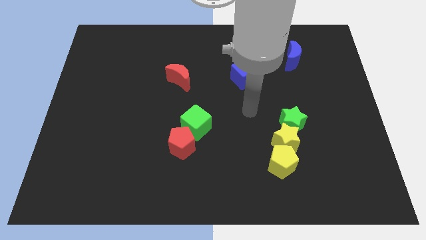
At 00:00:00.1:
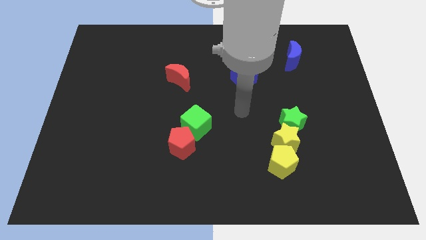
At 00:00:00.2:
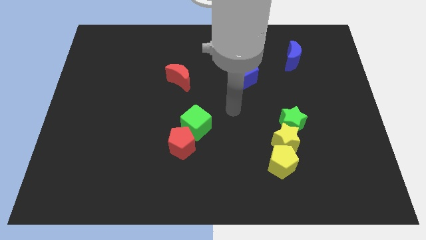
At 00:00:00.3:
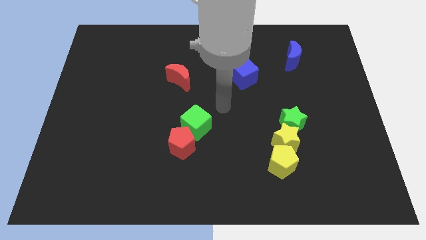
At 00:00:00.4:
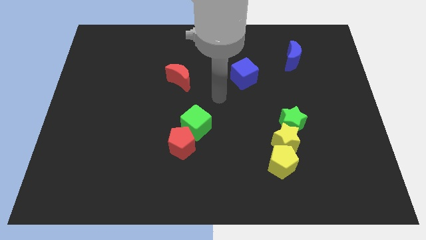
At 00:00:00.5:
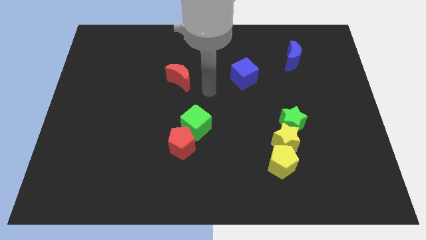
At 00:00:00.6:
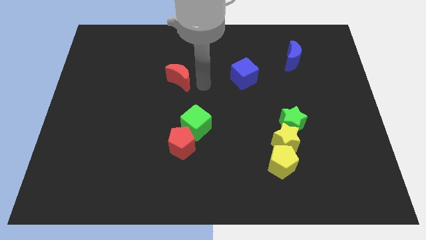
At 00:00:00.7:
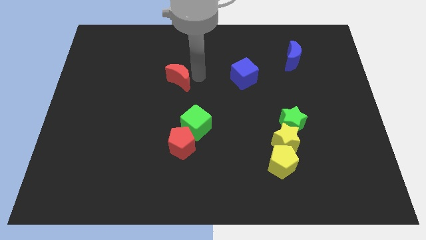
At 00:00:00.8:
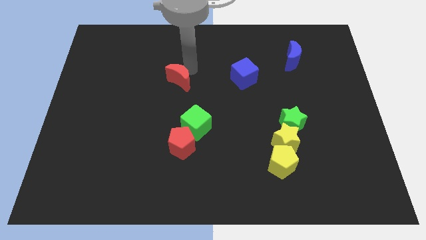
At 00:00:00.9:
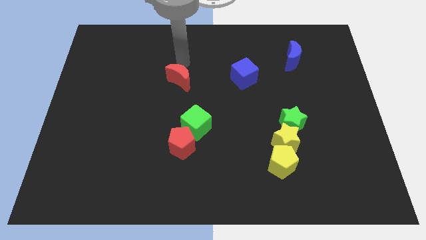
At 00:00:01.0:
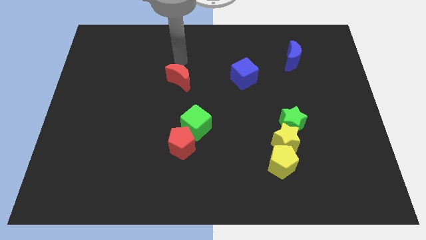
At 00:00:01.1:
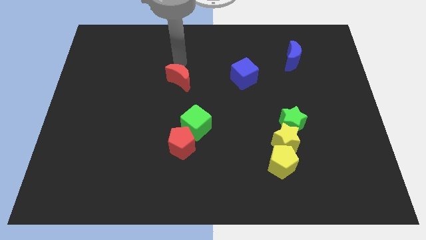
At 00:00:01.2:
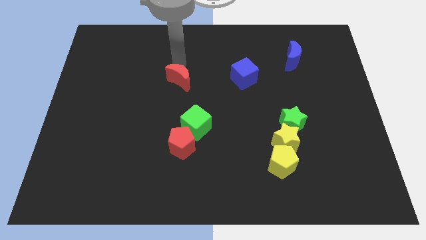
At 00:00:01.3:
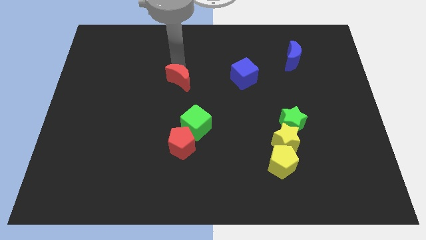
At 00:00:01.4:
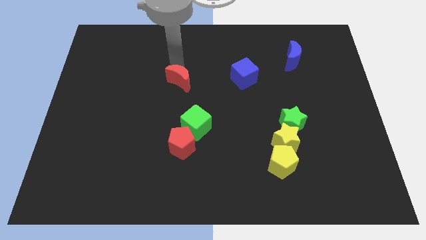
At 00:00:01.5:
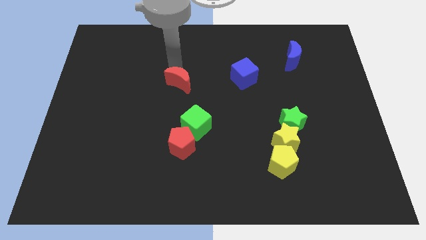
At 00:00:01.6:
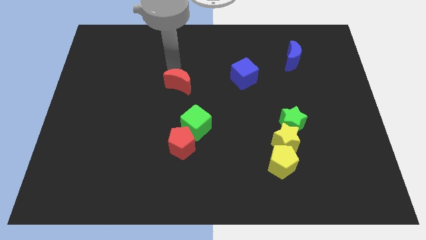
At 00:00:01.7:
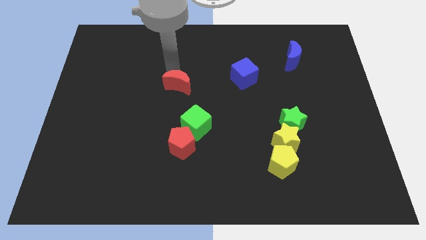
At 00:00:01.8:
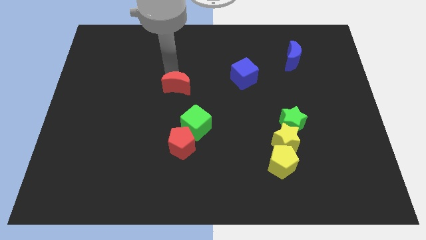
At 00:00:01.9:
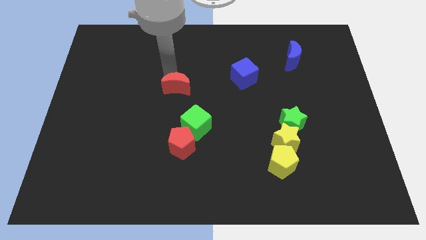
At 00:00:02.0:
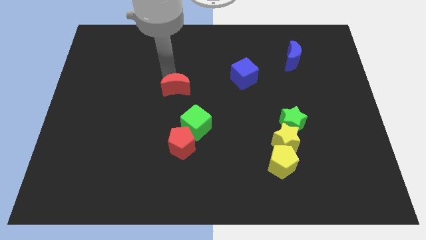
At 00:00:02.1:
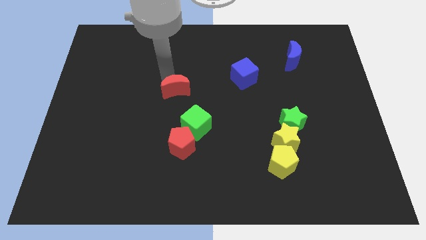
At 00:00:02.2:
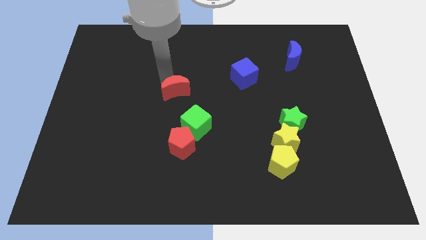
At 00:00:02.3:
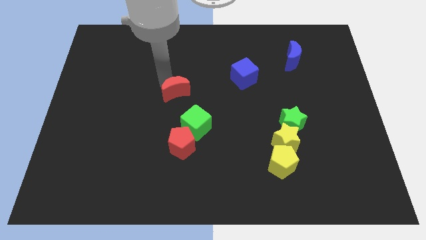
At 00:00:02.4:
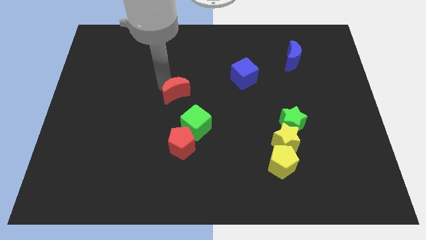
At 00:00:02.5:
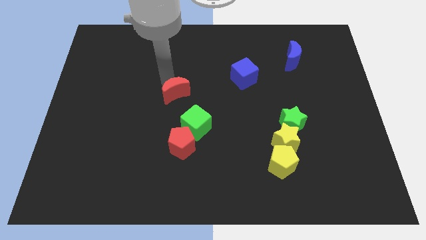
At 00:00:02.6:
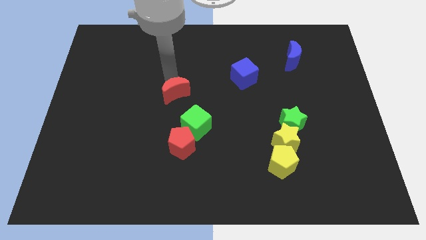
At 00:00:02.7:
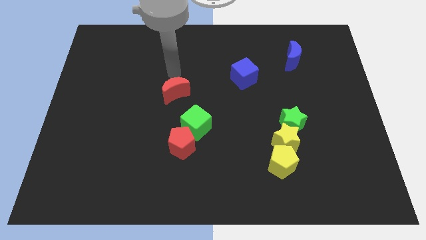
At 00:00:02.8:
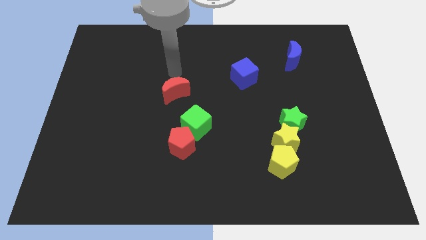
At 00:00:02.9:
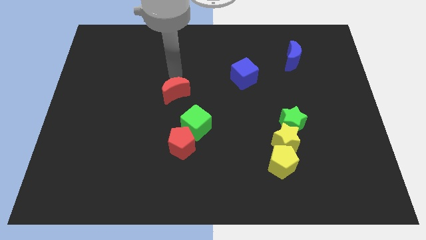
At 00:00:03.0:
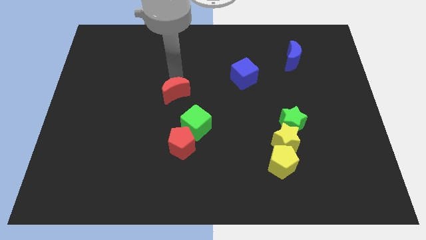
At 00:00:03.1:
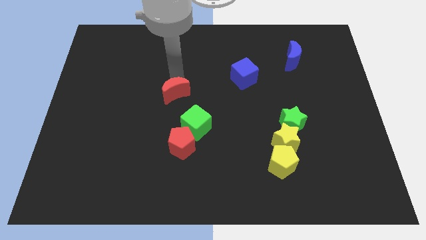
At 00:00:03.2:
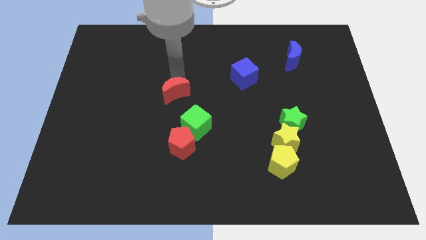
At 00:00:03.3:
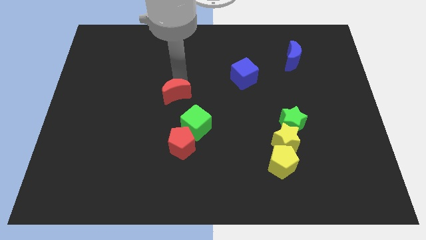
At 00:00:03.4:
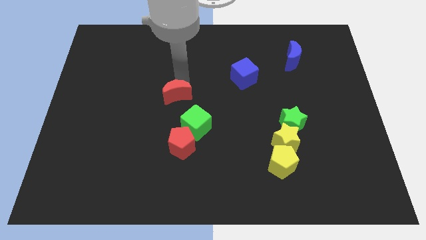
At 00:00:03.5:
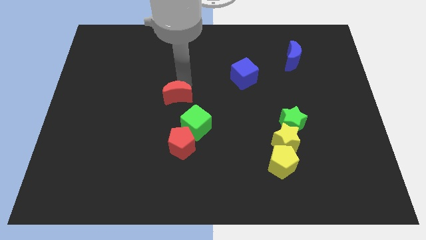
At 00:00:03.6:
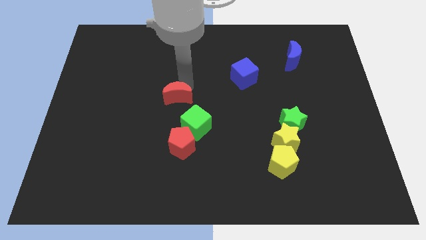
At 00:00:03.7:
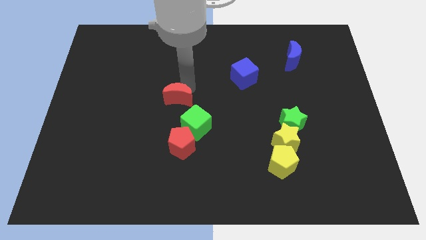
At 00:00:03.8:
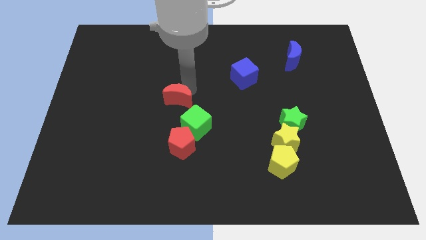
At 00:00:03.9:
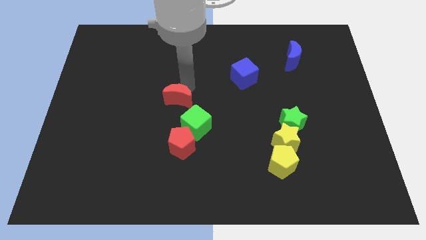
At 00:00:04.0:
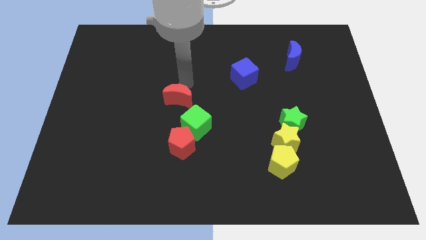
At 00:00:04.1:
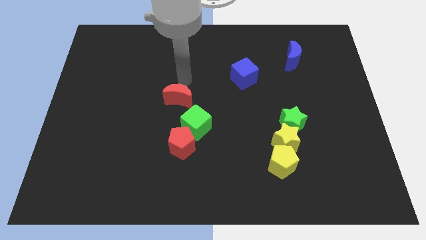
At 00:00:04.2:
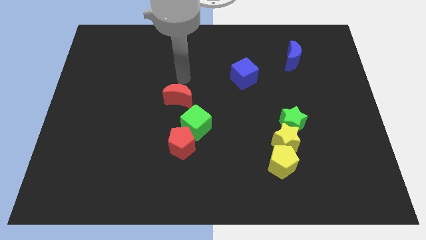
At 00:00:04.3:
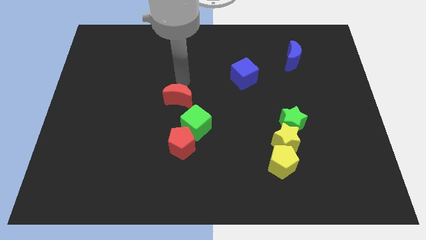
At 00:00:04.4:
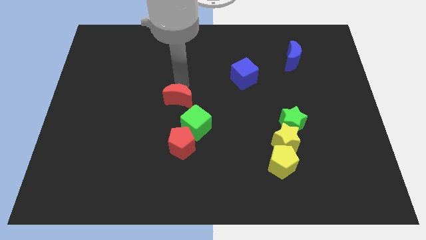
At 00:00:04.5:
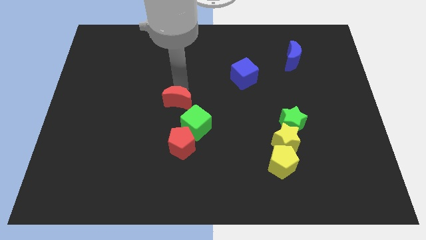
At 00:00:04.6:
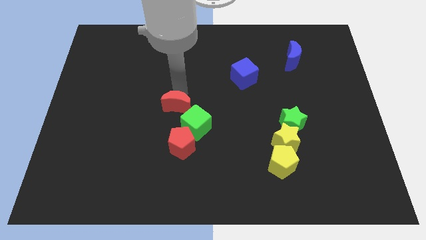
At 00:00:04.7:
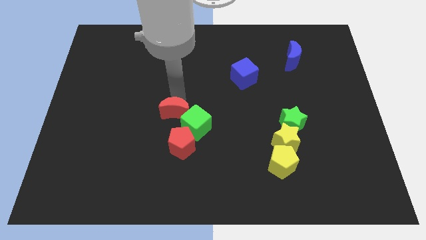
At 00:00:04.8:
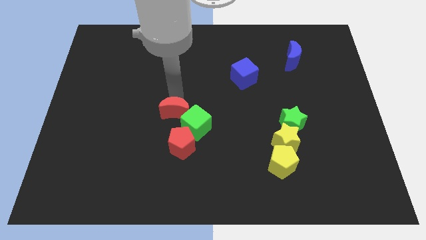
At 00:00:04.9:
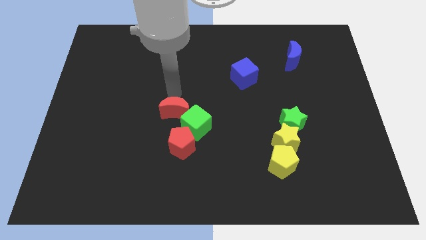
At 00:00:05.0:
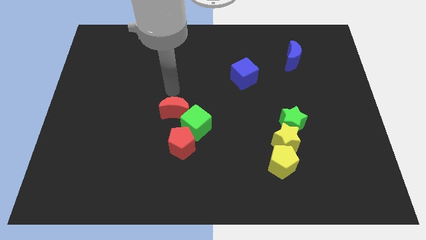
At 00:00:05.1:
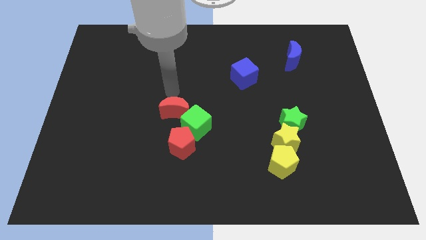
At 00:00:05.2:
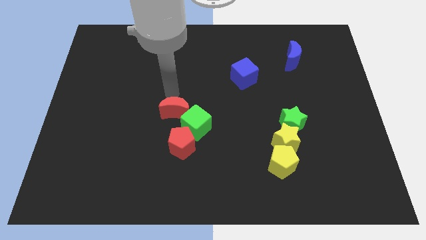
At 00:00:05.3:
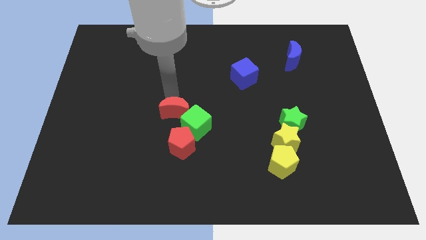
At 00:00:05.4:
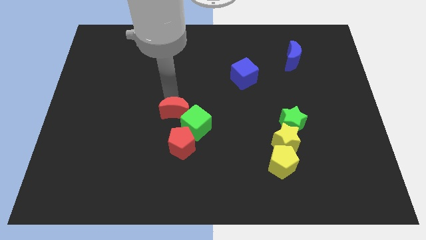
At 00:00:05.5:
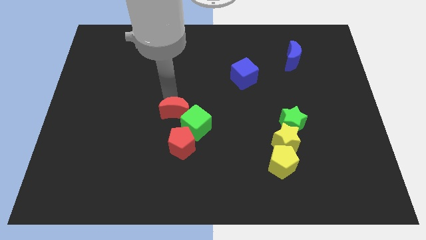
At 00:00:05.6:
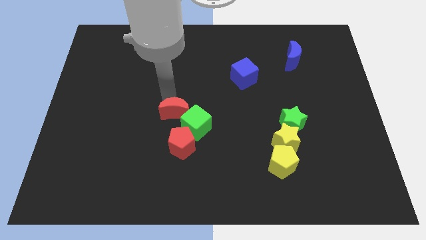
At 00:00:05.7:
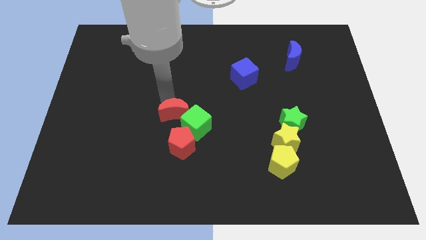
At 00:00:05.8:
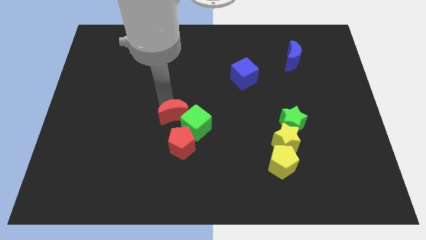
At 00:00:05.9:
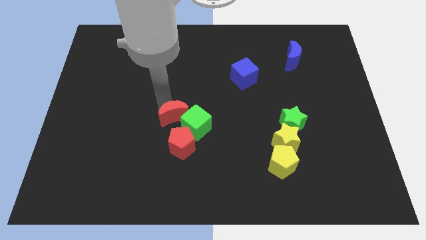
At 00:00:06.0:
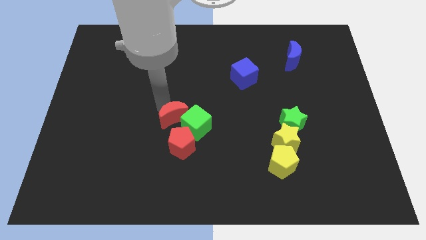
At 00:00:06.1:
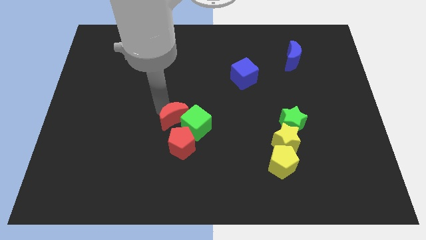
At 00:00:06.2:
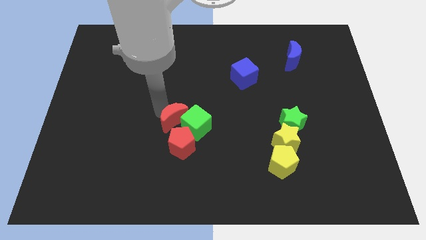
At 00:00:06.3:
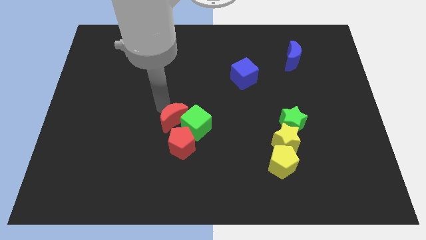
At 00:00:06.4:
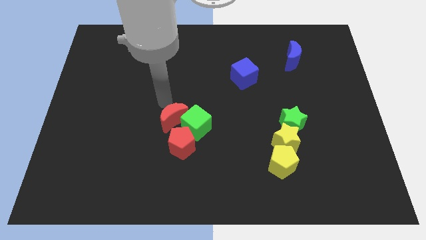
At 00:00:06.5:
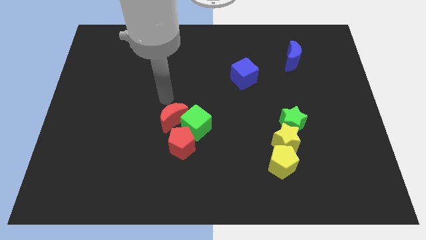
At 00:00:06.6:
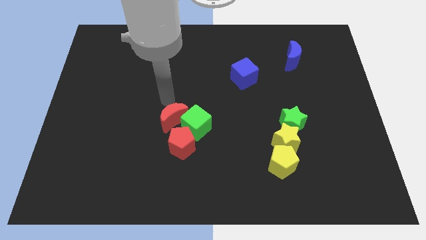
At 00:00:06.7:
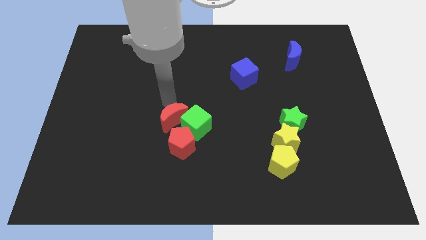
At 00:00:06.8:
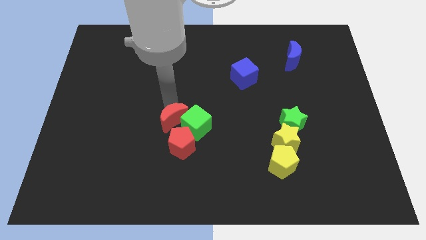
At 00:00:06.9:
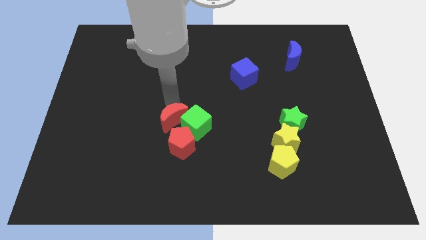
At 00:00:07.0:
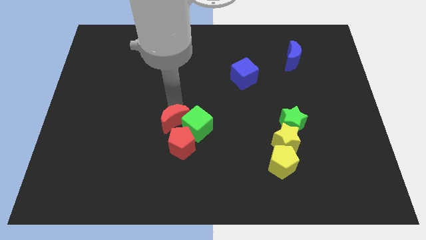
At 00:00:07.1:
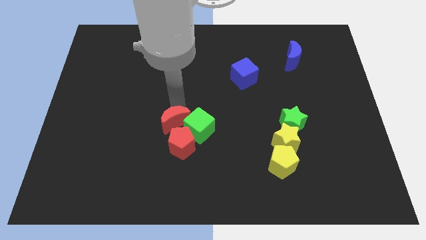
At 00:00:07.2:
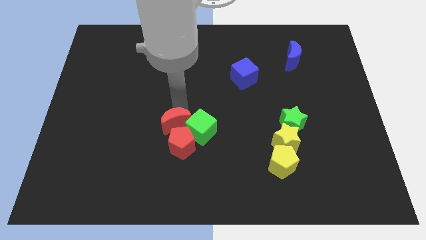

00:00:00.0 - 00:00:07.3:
slide the red moon towards the red pentagon
